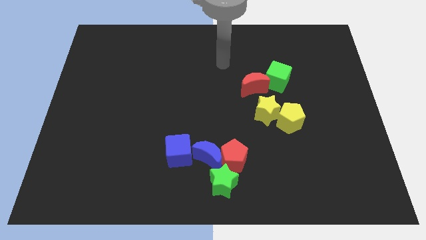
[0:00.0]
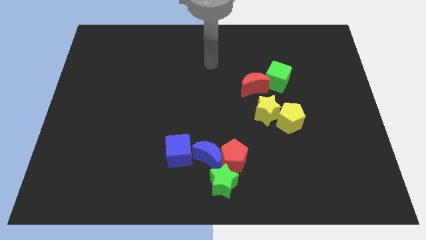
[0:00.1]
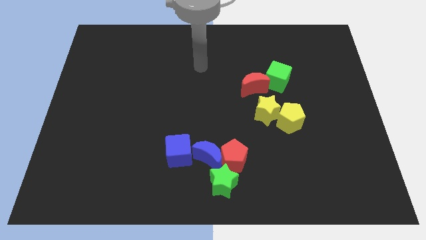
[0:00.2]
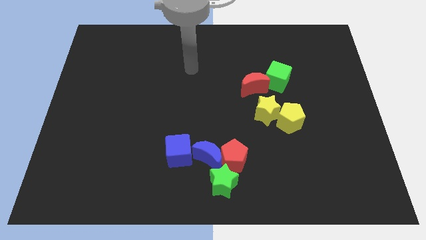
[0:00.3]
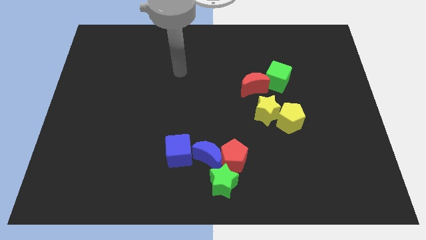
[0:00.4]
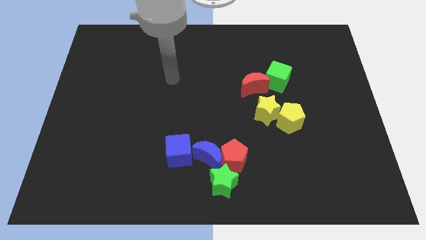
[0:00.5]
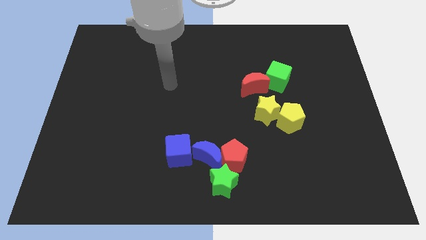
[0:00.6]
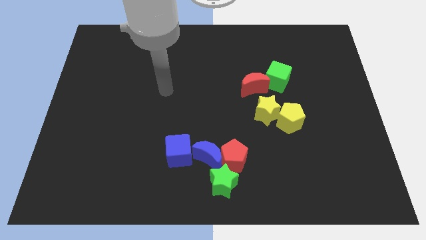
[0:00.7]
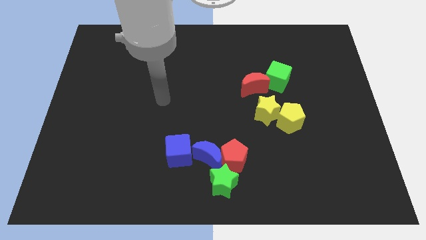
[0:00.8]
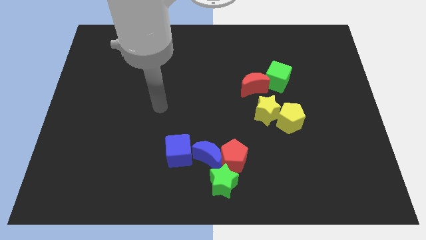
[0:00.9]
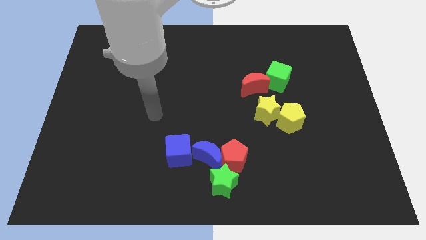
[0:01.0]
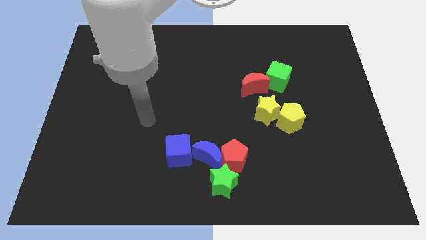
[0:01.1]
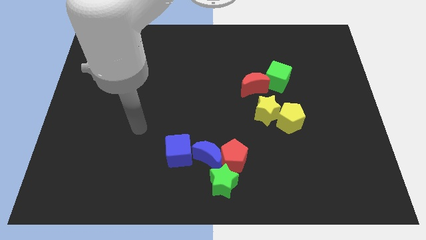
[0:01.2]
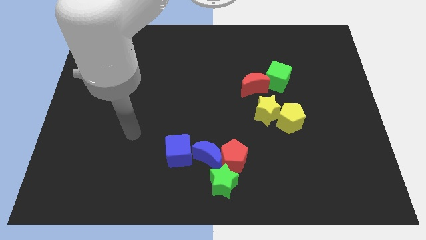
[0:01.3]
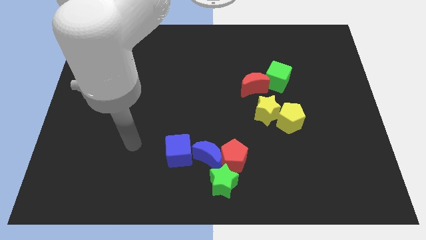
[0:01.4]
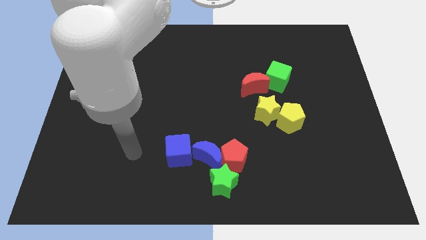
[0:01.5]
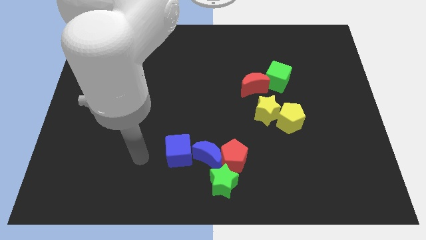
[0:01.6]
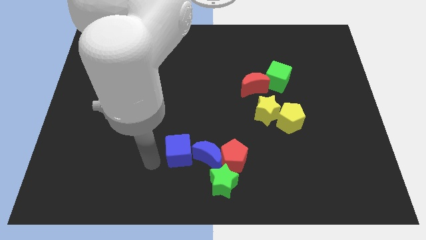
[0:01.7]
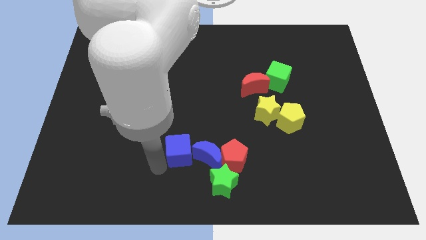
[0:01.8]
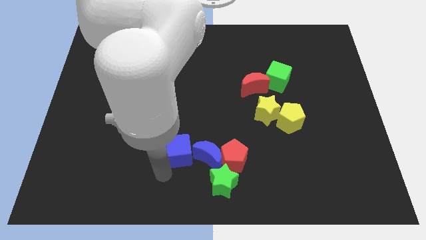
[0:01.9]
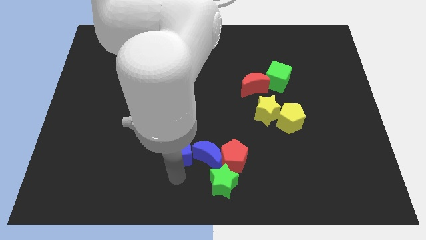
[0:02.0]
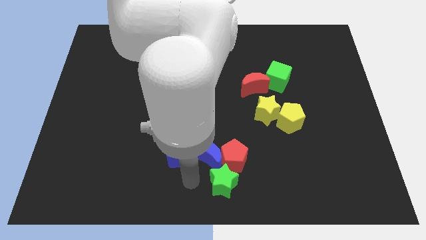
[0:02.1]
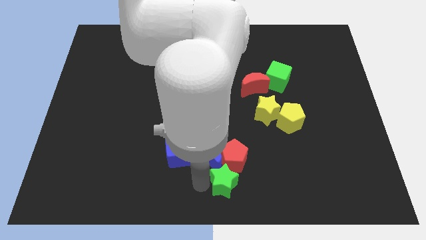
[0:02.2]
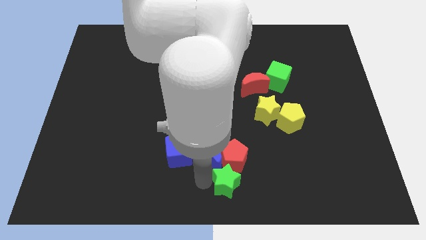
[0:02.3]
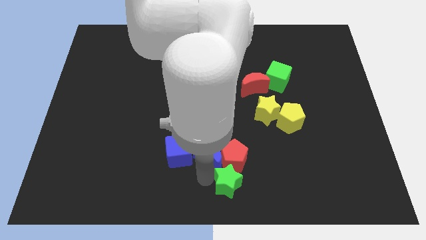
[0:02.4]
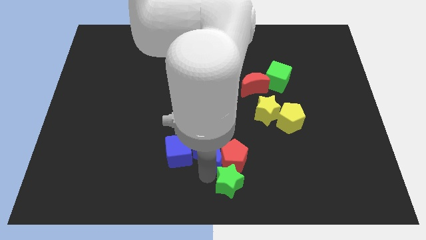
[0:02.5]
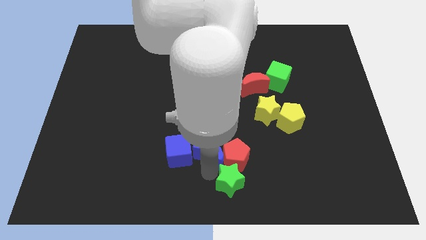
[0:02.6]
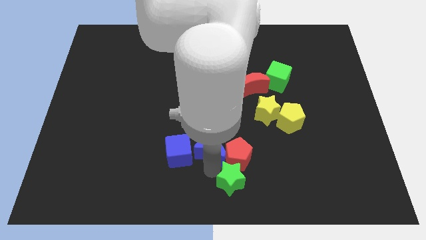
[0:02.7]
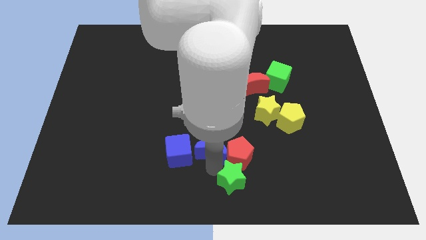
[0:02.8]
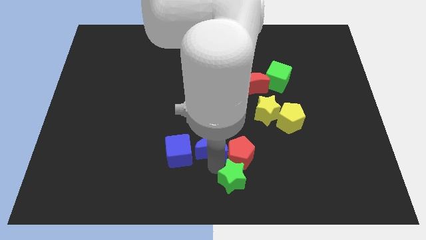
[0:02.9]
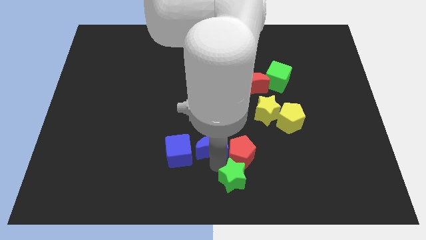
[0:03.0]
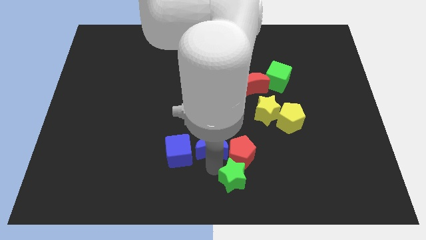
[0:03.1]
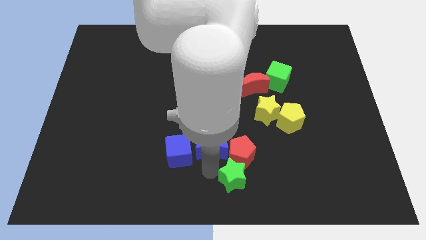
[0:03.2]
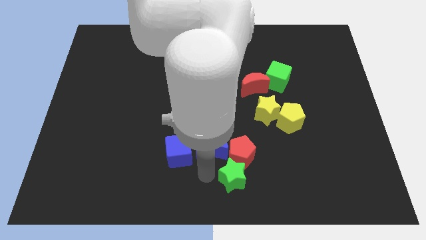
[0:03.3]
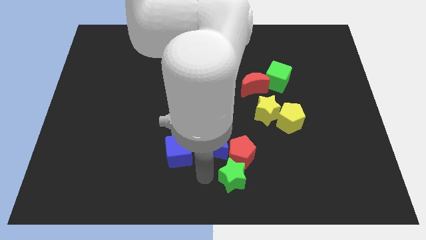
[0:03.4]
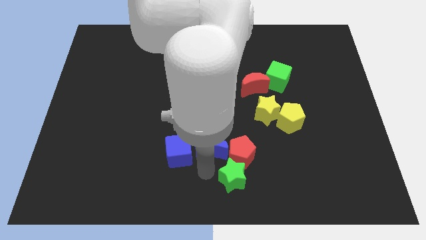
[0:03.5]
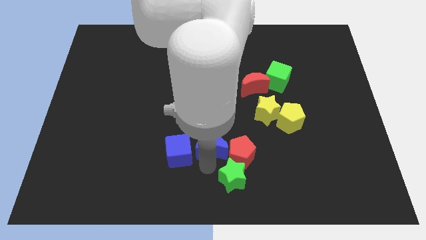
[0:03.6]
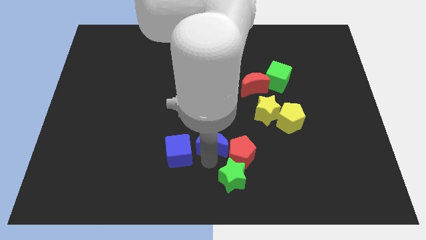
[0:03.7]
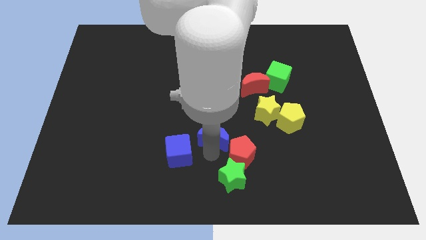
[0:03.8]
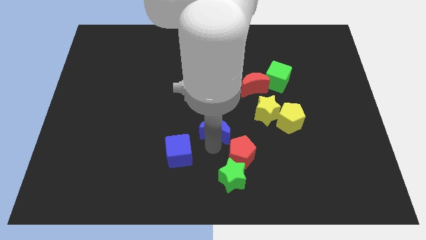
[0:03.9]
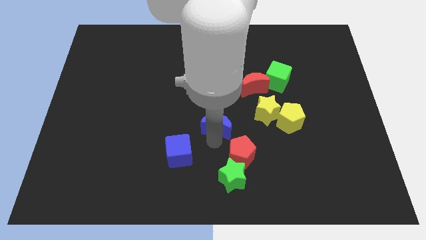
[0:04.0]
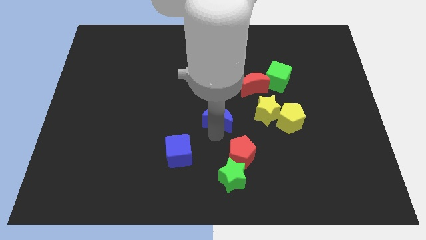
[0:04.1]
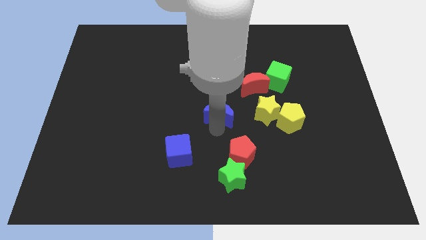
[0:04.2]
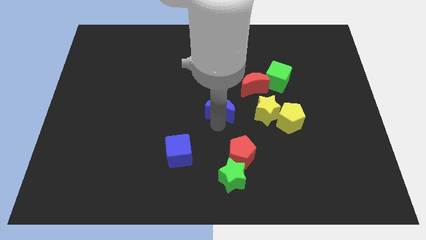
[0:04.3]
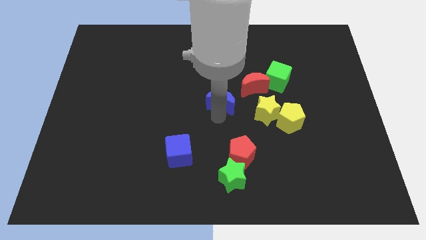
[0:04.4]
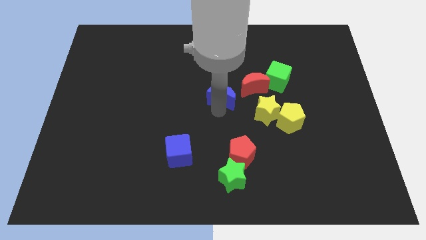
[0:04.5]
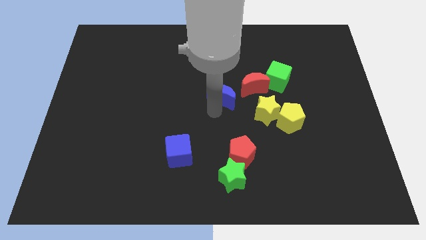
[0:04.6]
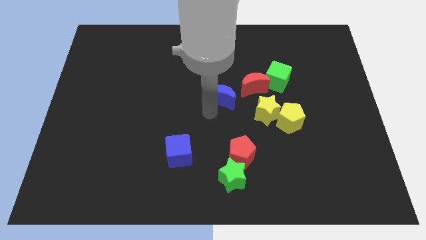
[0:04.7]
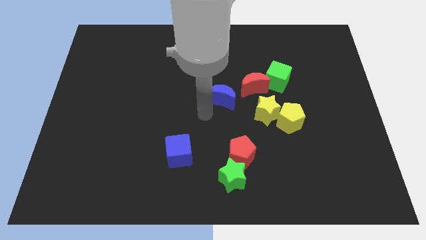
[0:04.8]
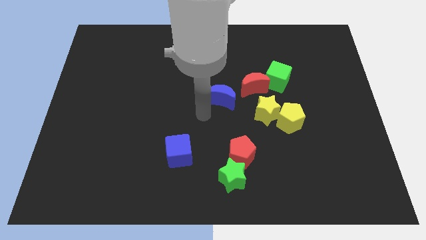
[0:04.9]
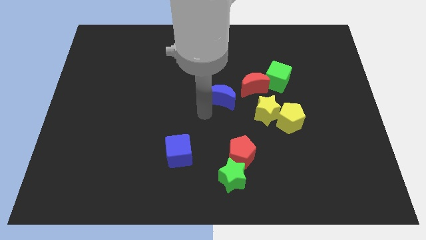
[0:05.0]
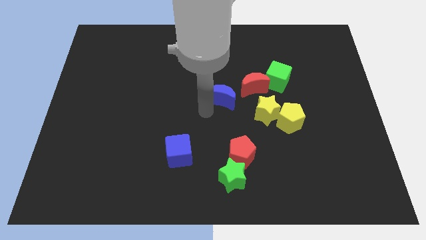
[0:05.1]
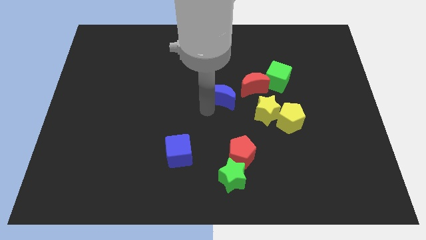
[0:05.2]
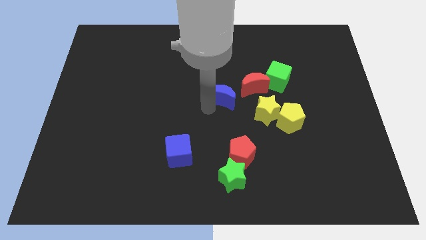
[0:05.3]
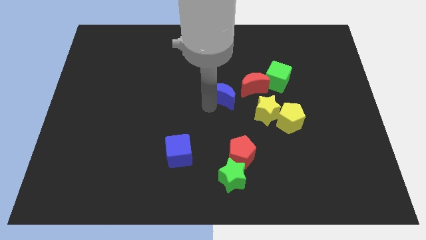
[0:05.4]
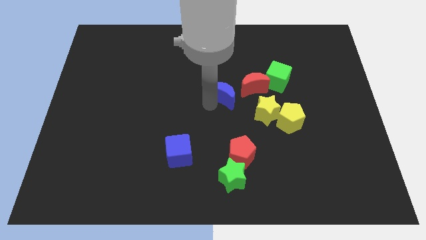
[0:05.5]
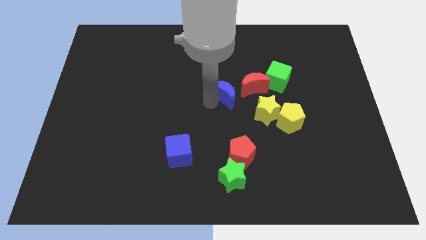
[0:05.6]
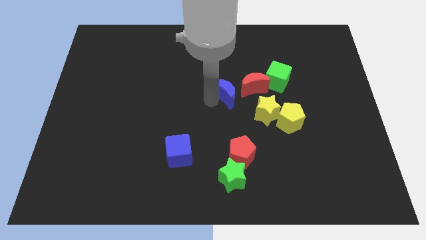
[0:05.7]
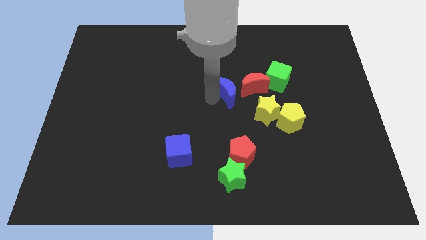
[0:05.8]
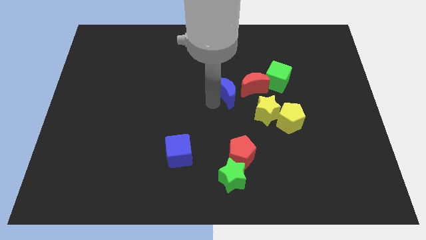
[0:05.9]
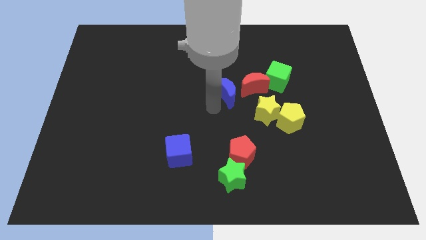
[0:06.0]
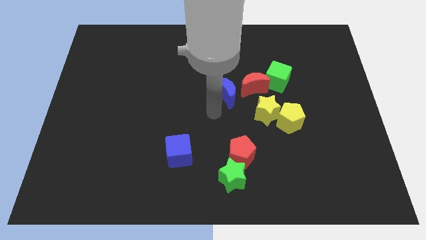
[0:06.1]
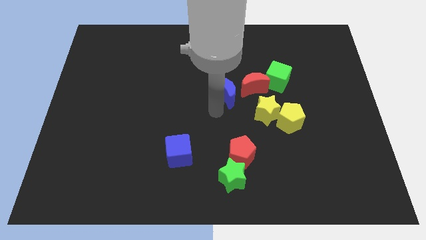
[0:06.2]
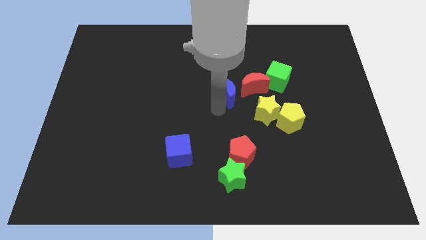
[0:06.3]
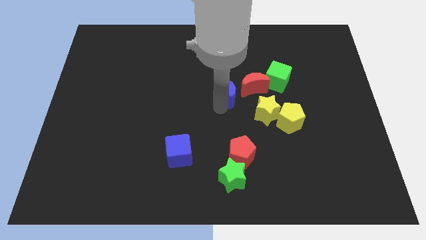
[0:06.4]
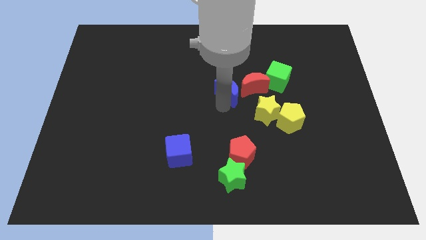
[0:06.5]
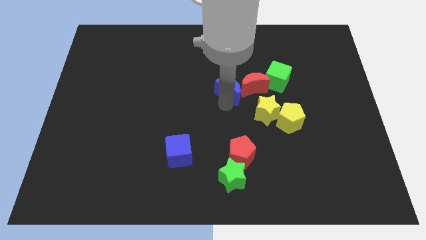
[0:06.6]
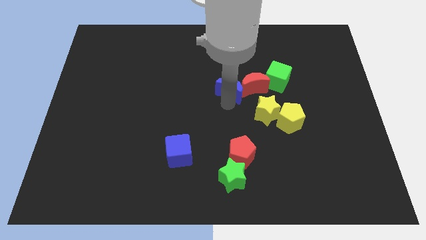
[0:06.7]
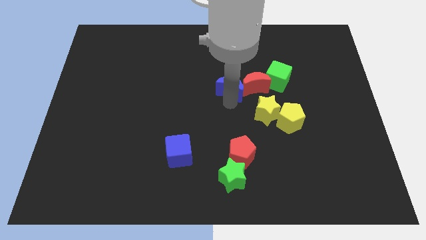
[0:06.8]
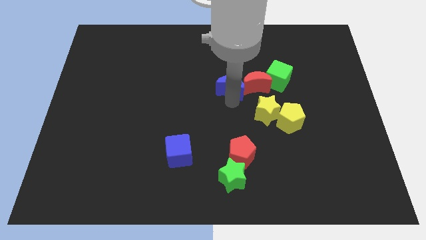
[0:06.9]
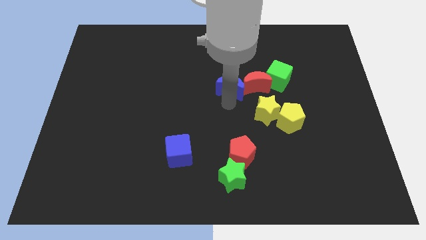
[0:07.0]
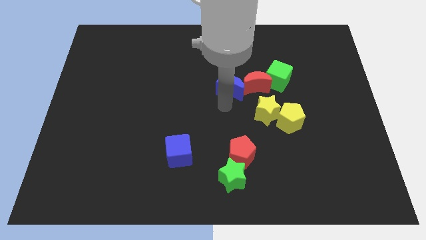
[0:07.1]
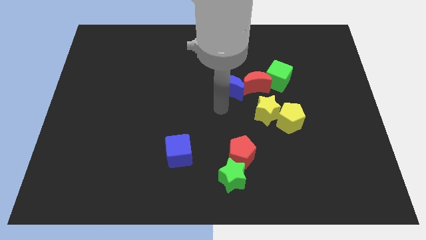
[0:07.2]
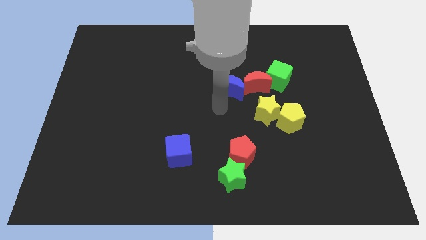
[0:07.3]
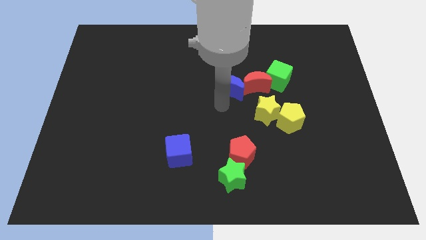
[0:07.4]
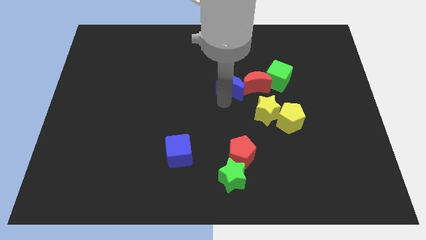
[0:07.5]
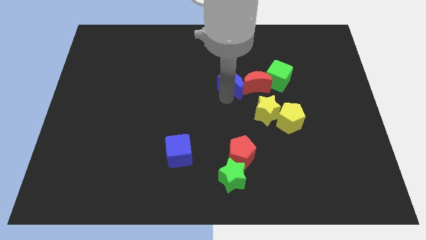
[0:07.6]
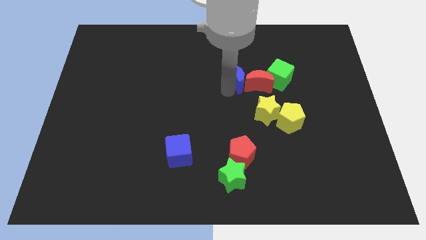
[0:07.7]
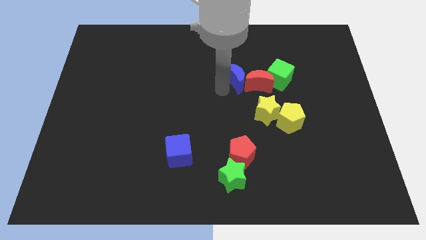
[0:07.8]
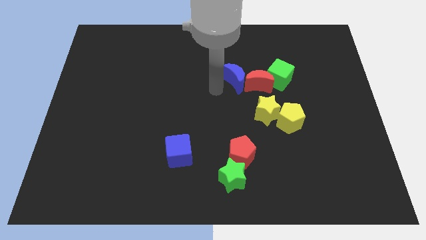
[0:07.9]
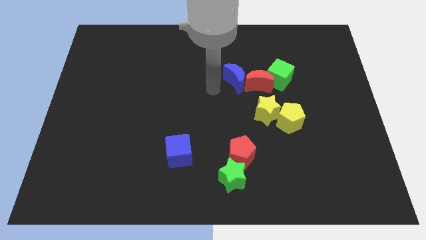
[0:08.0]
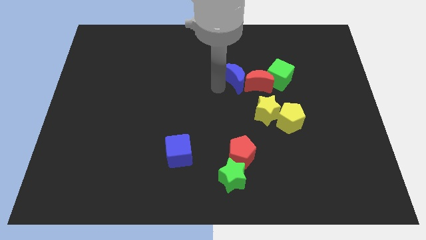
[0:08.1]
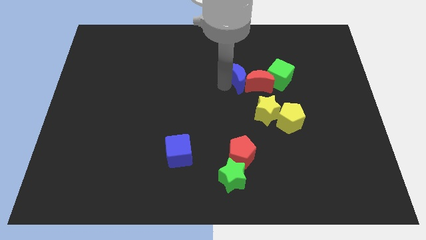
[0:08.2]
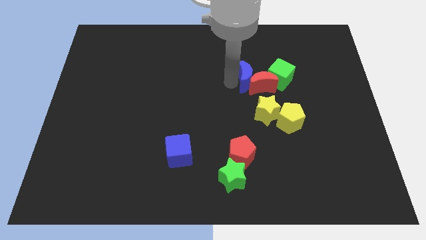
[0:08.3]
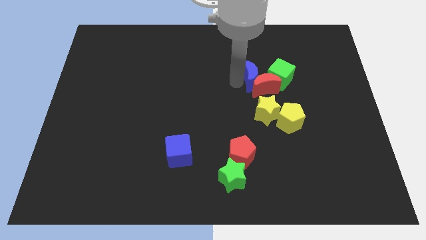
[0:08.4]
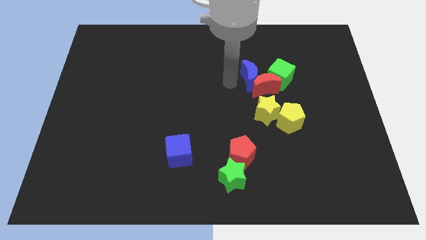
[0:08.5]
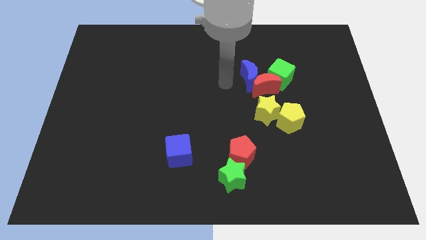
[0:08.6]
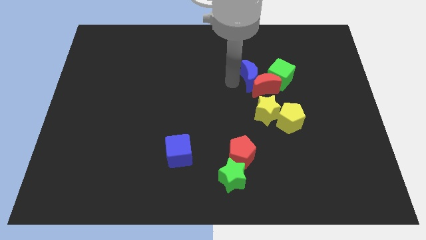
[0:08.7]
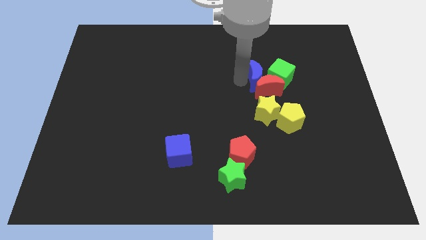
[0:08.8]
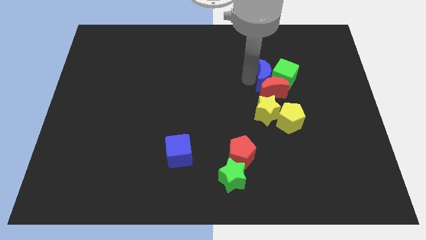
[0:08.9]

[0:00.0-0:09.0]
push the blue moon to the top right of the red moon
